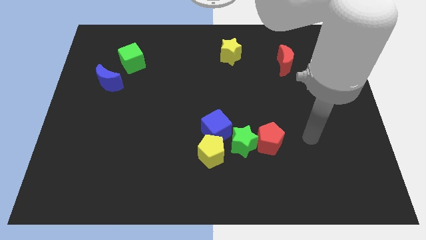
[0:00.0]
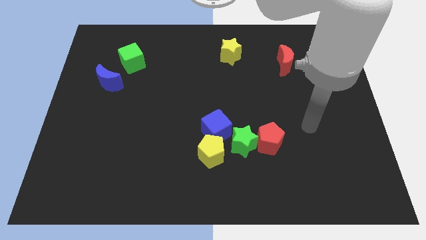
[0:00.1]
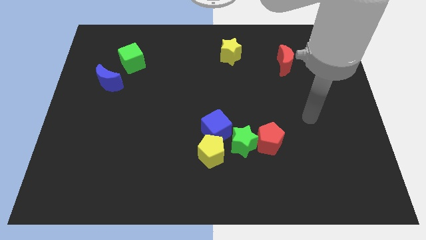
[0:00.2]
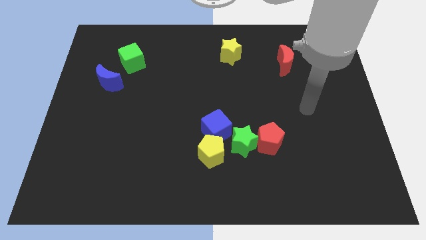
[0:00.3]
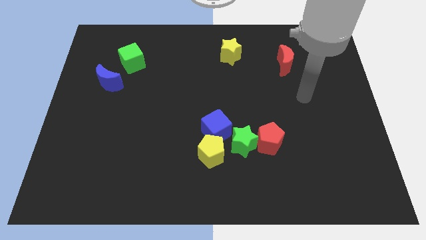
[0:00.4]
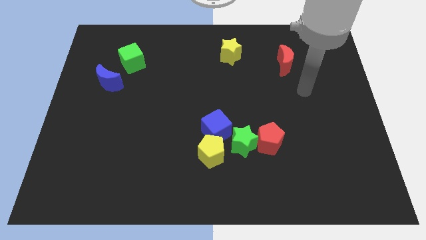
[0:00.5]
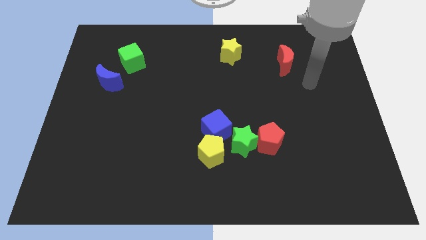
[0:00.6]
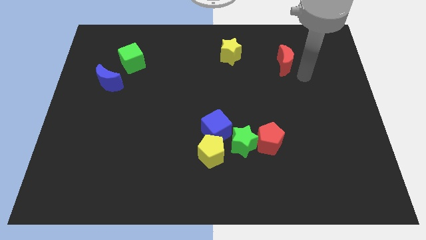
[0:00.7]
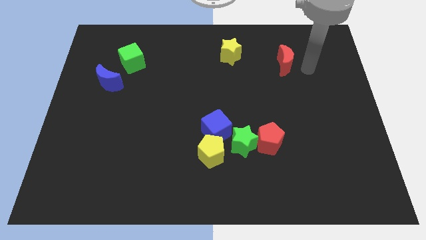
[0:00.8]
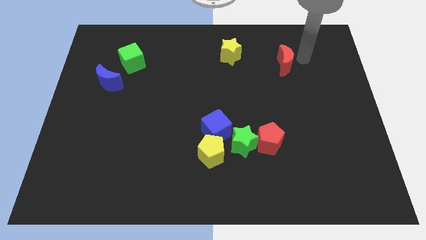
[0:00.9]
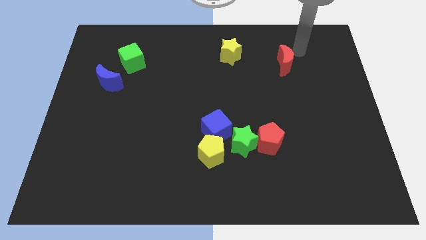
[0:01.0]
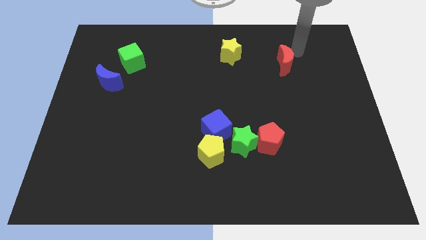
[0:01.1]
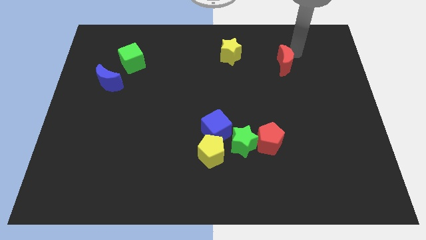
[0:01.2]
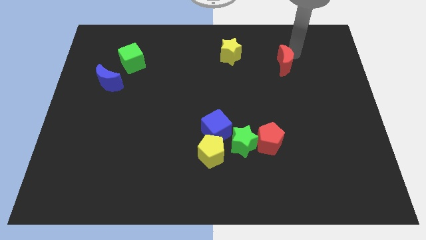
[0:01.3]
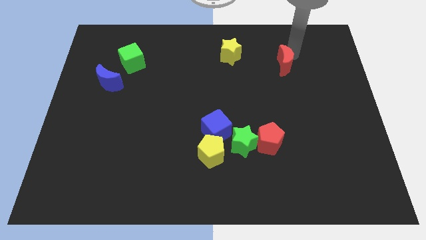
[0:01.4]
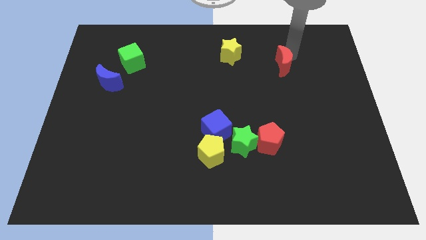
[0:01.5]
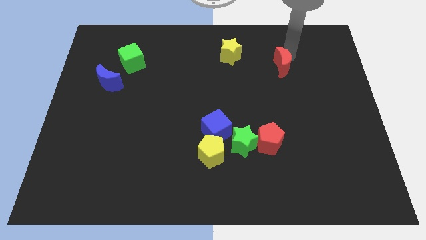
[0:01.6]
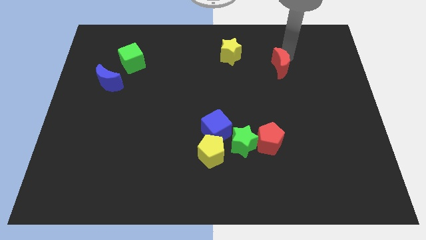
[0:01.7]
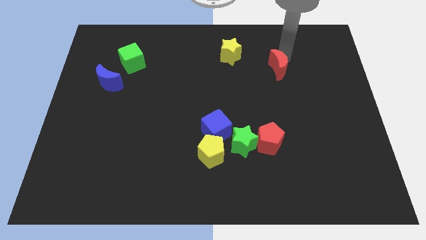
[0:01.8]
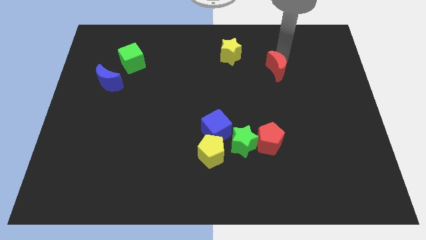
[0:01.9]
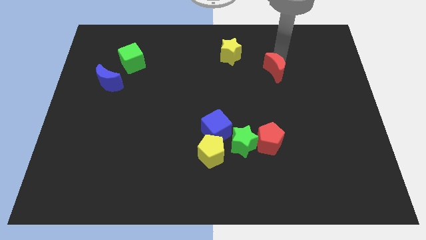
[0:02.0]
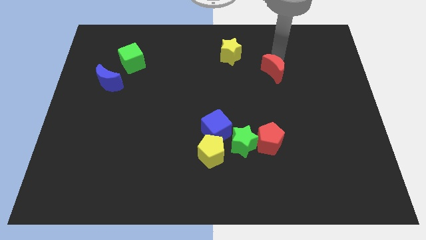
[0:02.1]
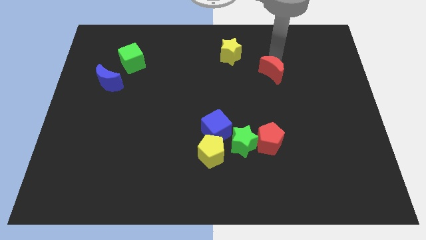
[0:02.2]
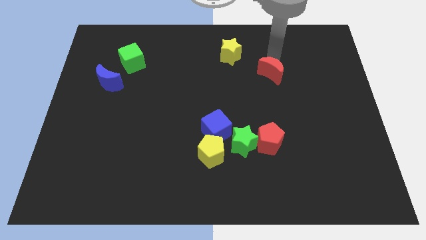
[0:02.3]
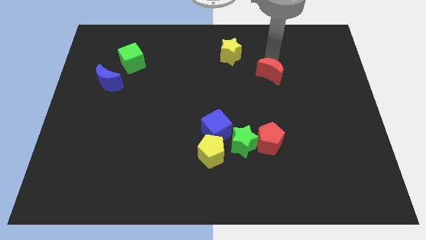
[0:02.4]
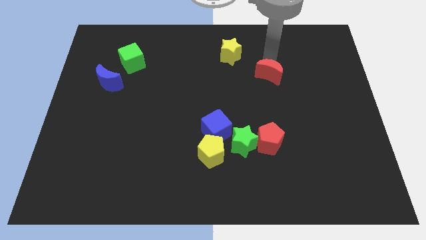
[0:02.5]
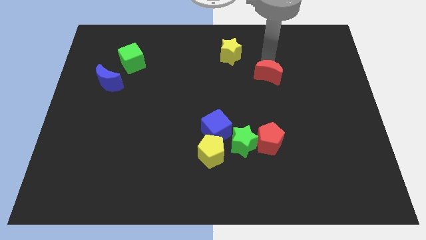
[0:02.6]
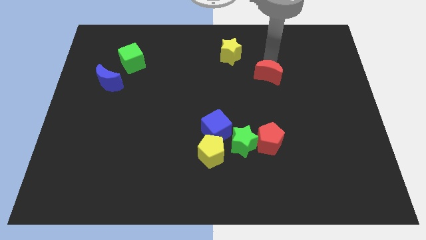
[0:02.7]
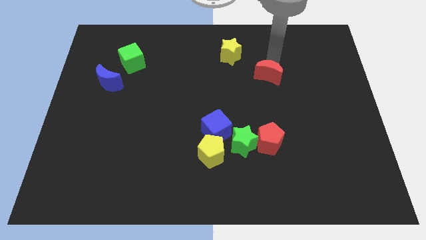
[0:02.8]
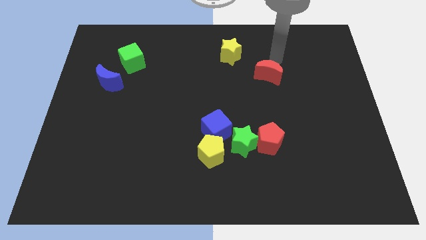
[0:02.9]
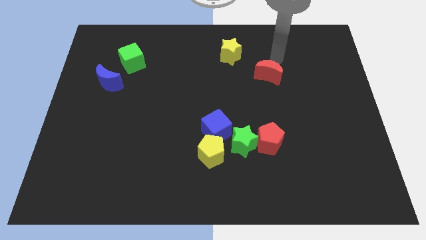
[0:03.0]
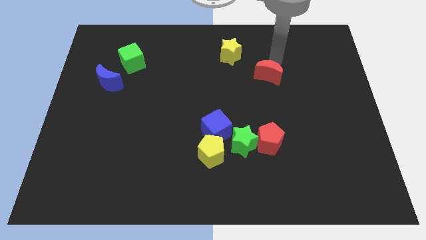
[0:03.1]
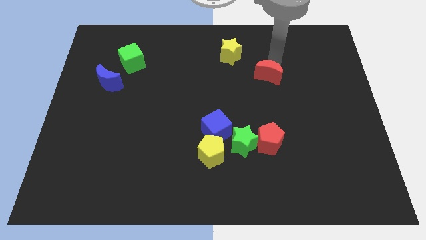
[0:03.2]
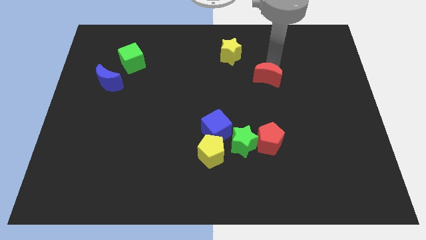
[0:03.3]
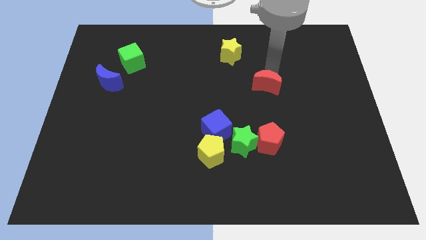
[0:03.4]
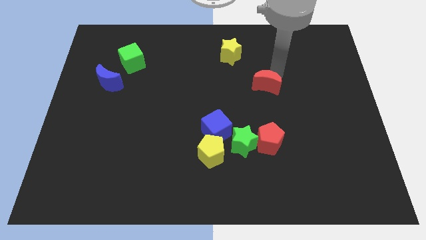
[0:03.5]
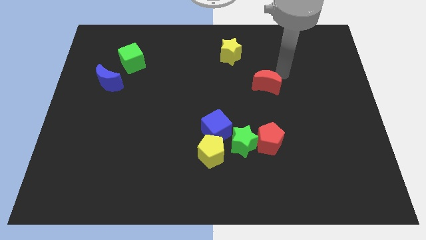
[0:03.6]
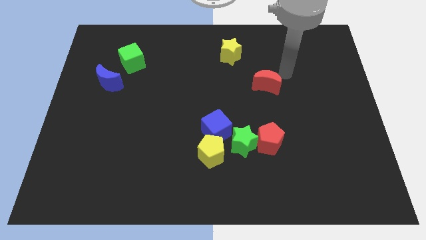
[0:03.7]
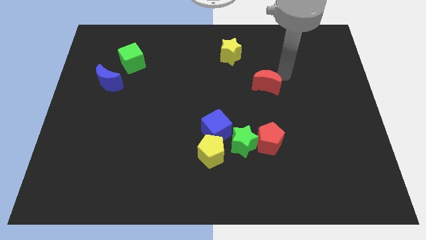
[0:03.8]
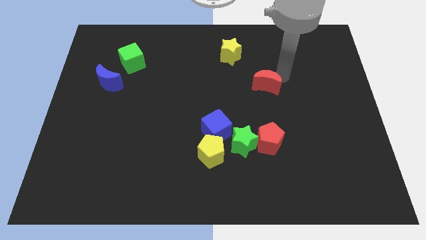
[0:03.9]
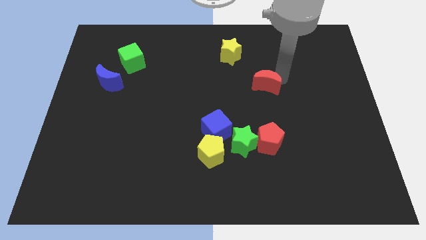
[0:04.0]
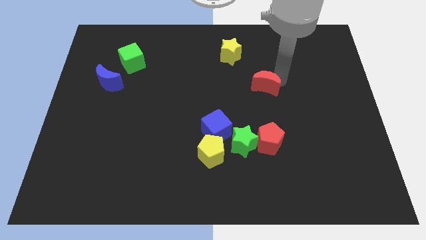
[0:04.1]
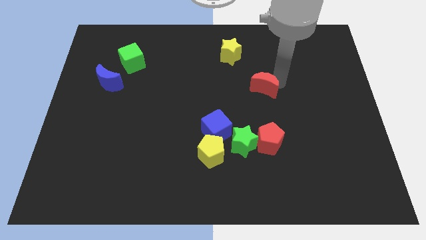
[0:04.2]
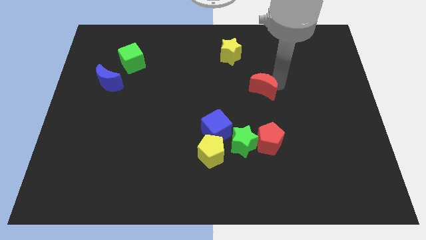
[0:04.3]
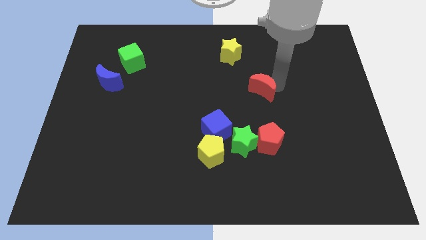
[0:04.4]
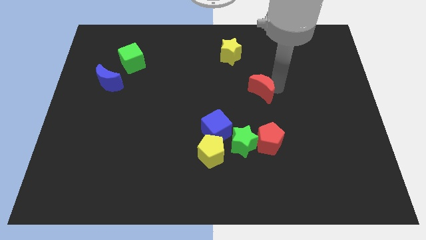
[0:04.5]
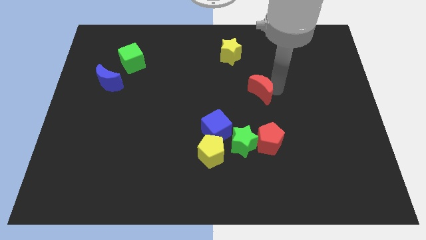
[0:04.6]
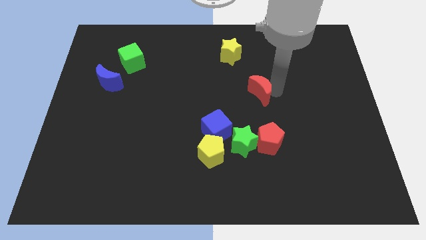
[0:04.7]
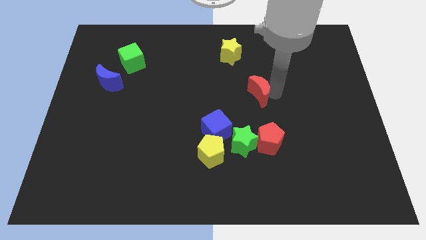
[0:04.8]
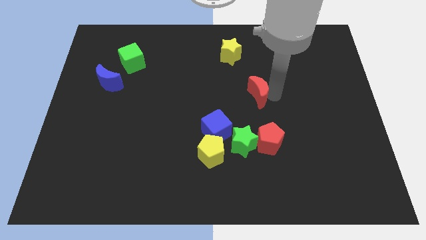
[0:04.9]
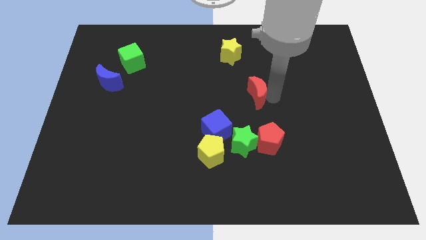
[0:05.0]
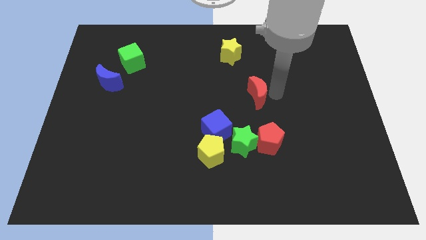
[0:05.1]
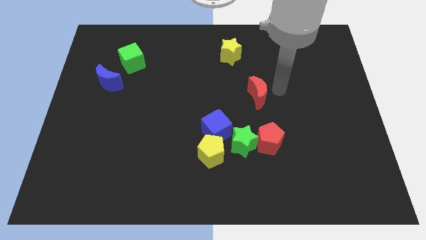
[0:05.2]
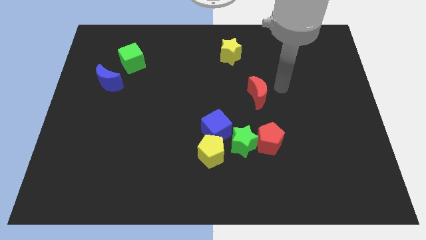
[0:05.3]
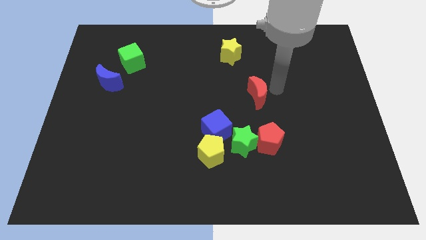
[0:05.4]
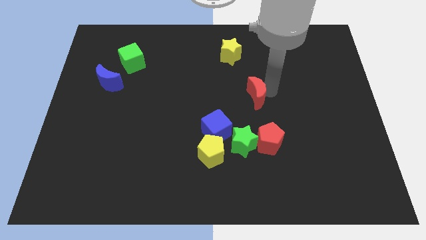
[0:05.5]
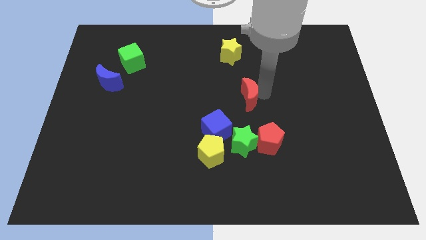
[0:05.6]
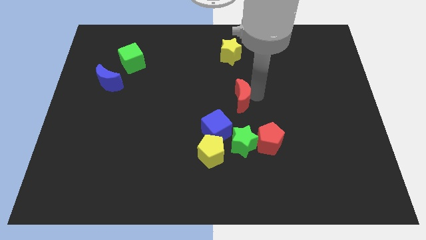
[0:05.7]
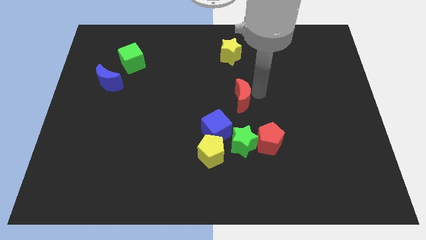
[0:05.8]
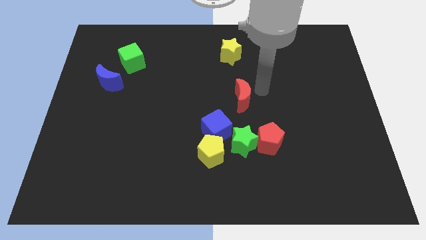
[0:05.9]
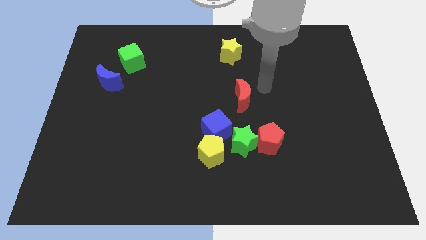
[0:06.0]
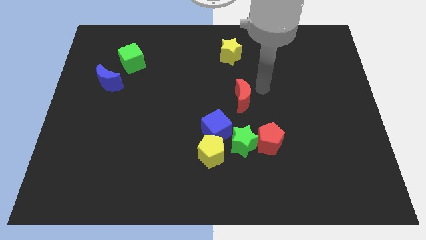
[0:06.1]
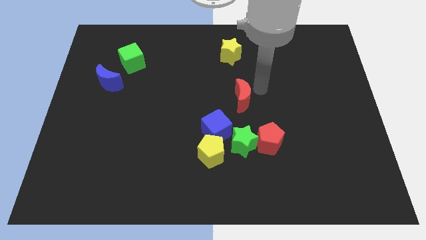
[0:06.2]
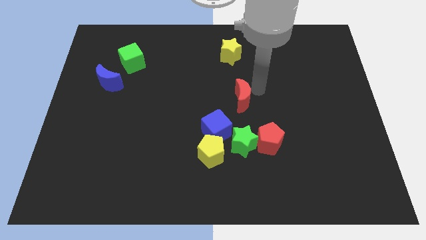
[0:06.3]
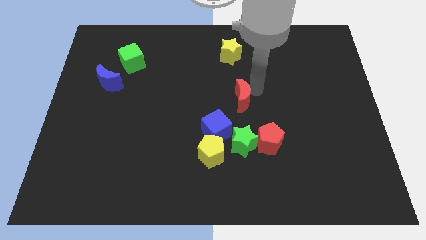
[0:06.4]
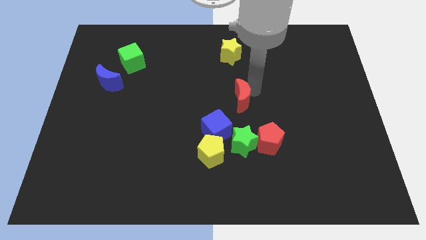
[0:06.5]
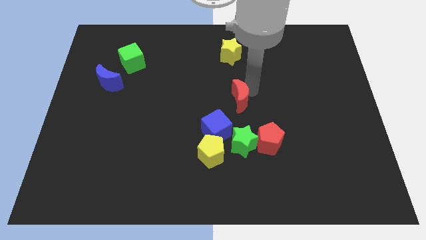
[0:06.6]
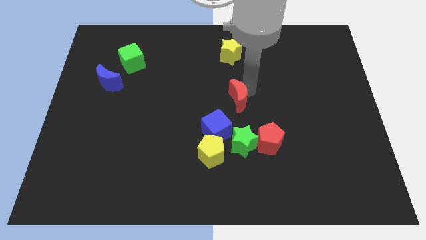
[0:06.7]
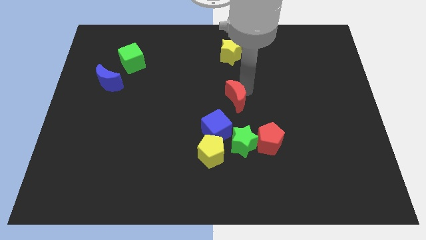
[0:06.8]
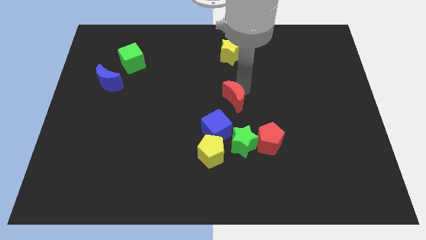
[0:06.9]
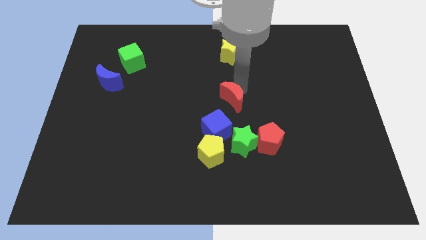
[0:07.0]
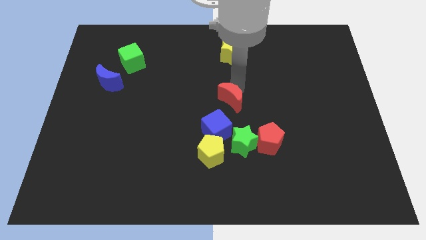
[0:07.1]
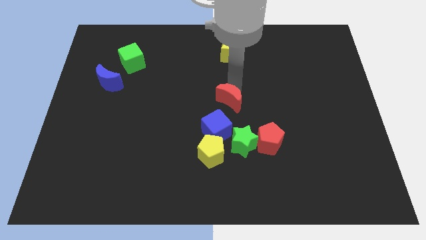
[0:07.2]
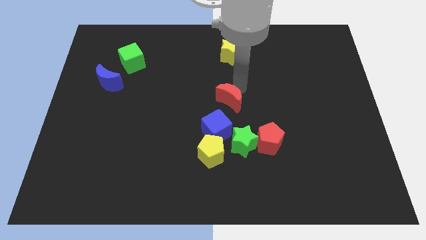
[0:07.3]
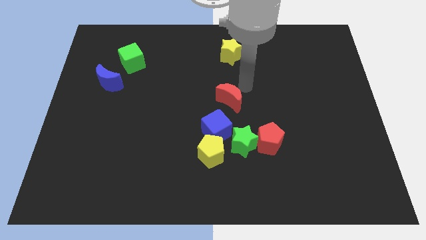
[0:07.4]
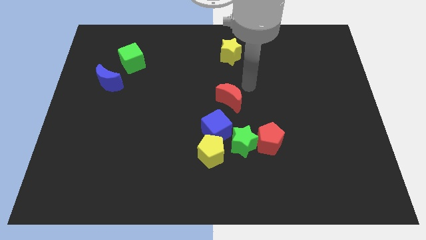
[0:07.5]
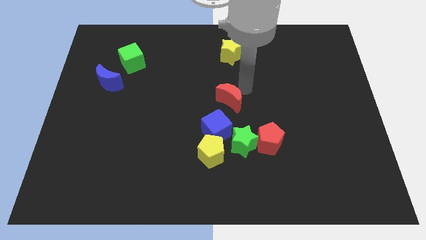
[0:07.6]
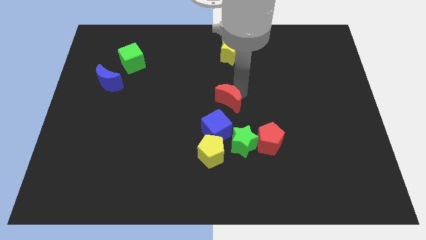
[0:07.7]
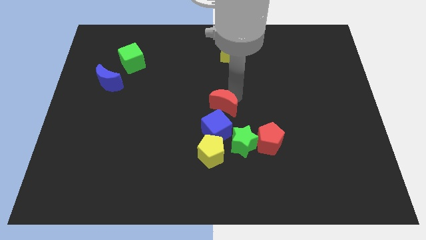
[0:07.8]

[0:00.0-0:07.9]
move the red moon to the top of the yellow pentagon
